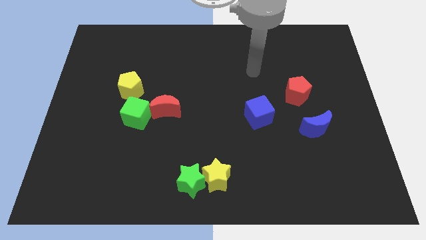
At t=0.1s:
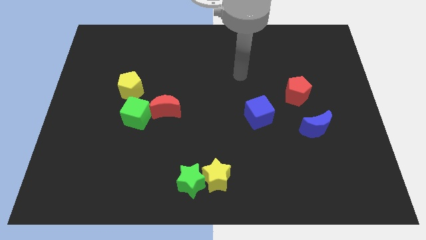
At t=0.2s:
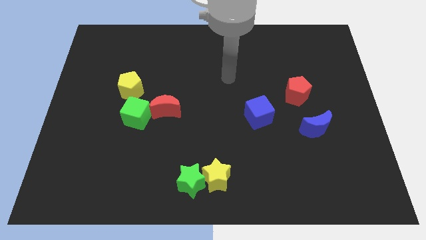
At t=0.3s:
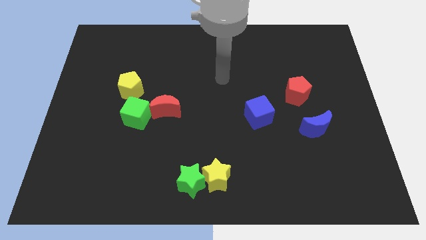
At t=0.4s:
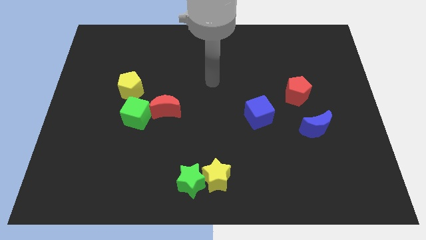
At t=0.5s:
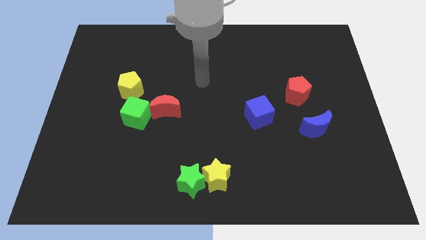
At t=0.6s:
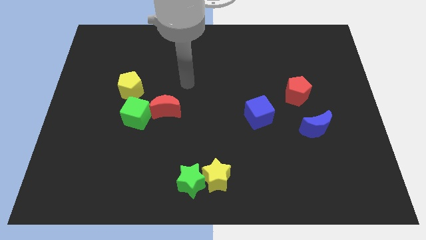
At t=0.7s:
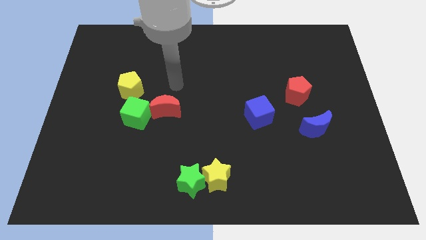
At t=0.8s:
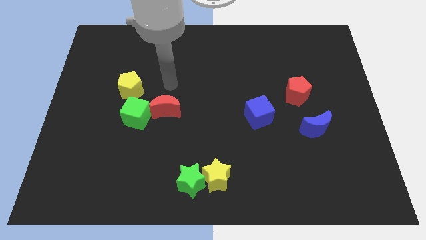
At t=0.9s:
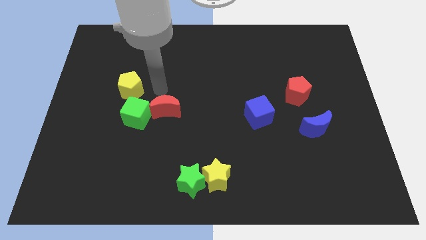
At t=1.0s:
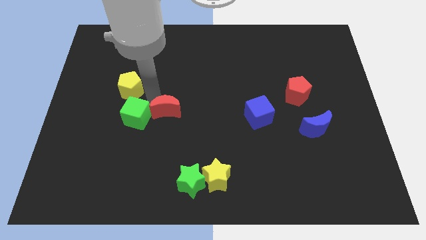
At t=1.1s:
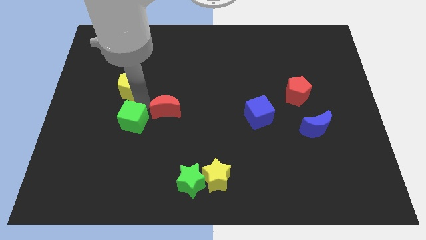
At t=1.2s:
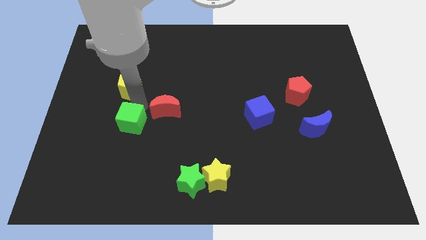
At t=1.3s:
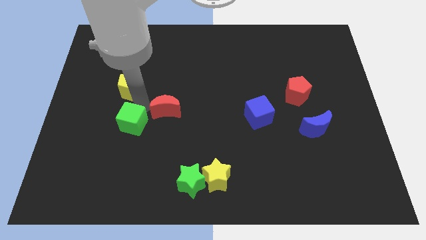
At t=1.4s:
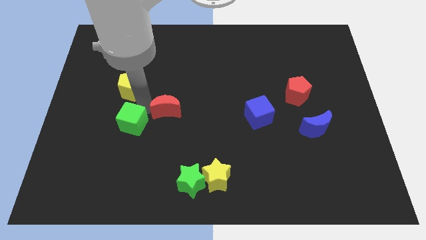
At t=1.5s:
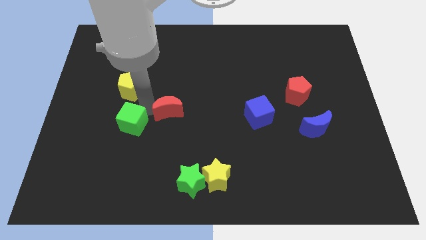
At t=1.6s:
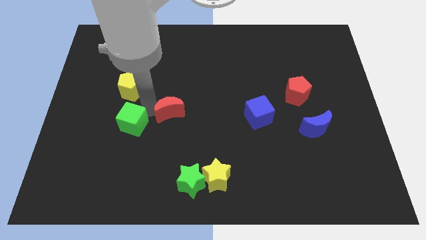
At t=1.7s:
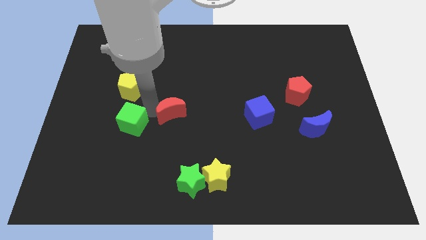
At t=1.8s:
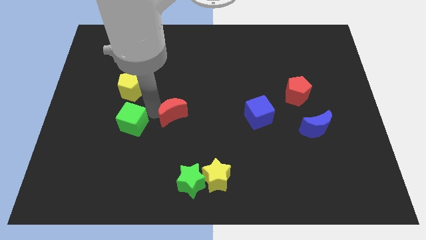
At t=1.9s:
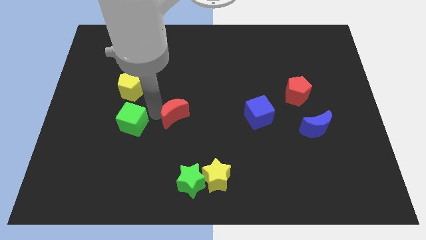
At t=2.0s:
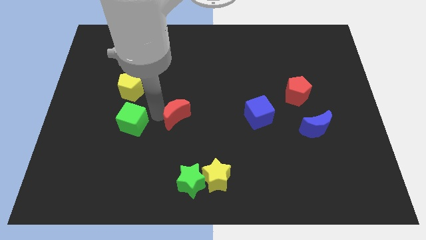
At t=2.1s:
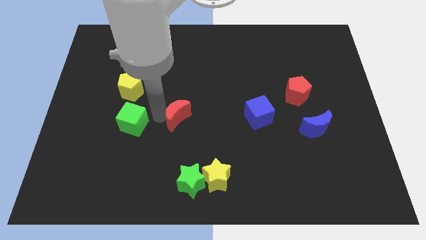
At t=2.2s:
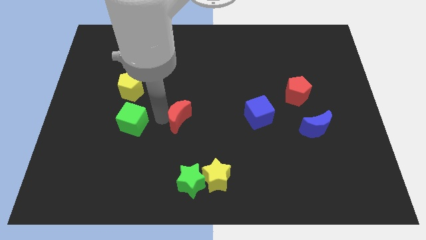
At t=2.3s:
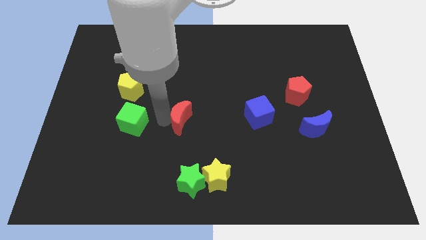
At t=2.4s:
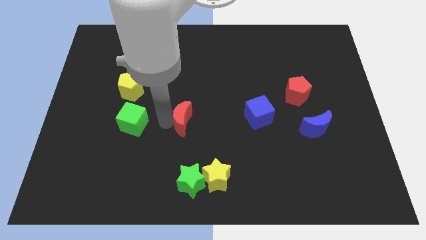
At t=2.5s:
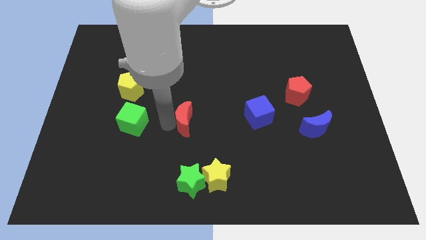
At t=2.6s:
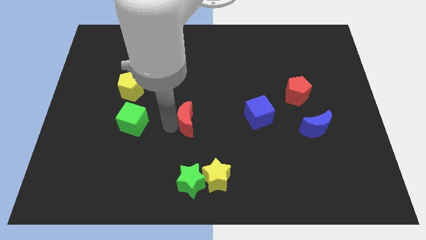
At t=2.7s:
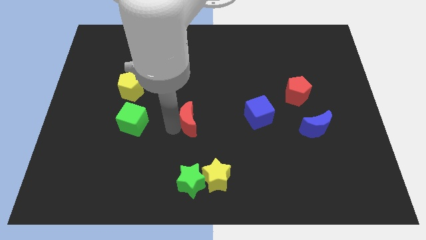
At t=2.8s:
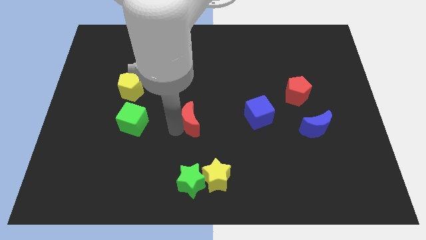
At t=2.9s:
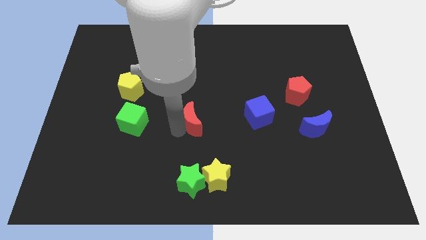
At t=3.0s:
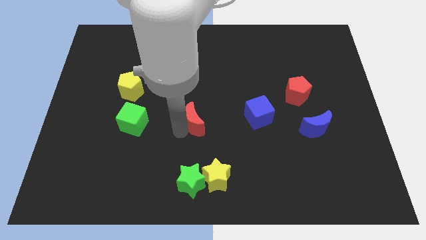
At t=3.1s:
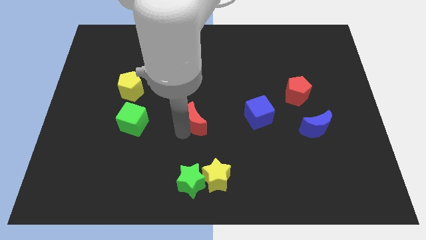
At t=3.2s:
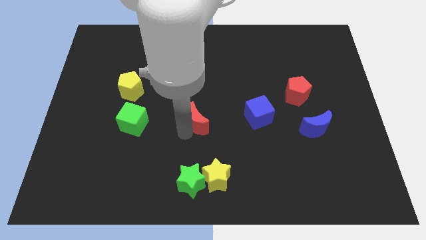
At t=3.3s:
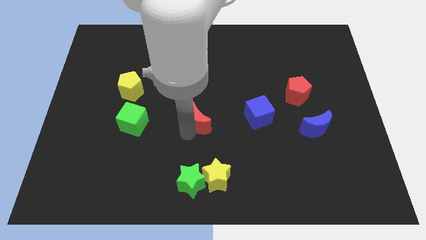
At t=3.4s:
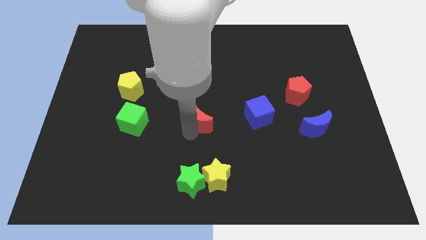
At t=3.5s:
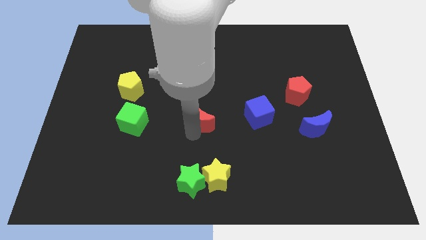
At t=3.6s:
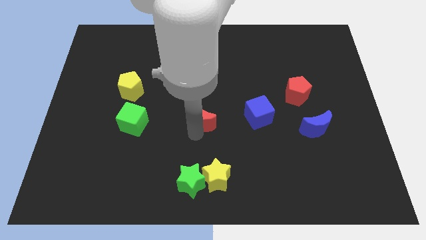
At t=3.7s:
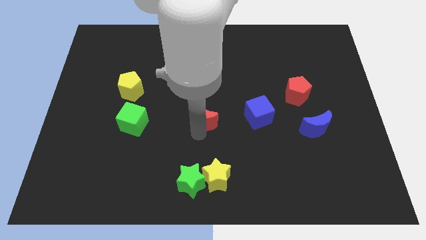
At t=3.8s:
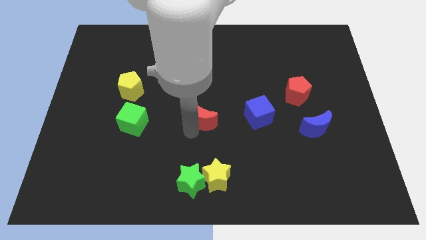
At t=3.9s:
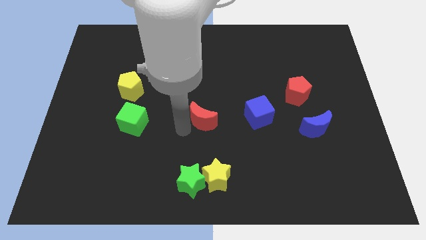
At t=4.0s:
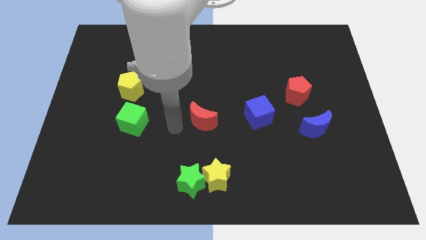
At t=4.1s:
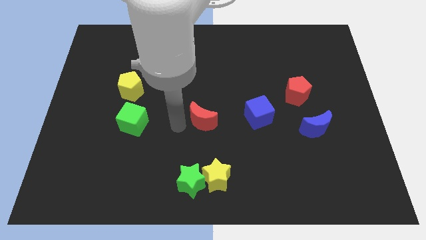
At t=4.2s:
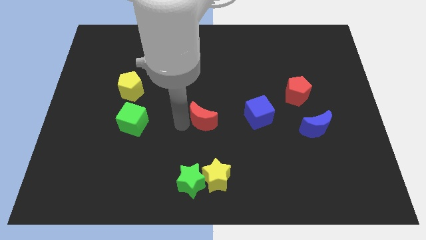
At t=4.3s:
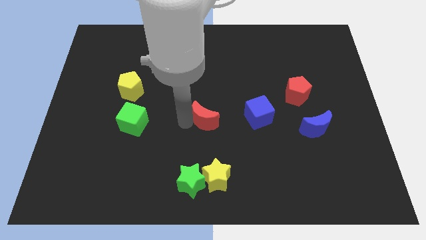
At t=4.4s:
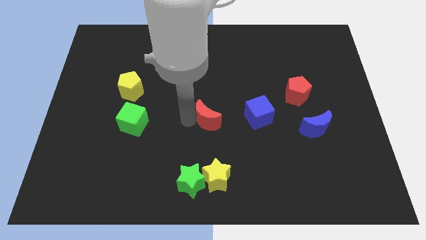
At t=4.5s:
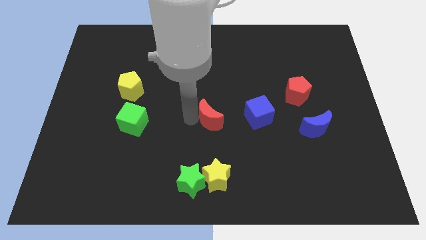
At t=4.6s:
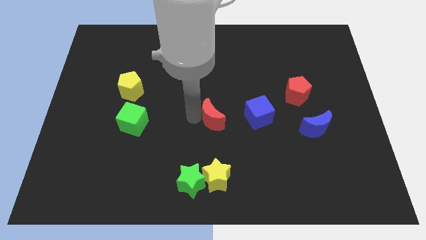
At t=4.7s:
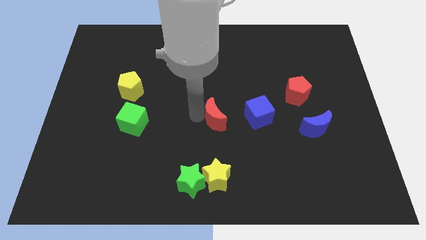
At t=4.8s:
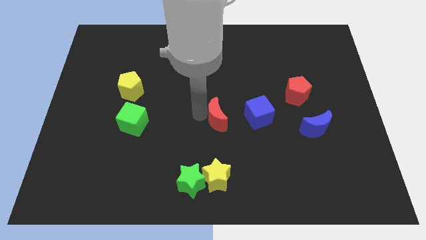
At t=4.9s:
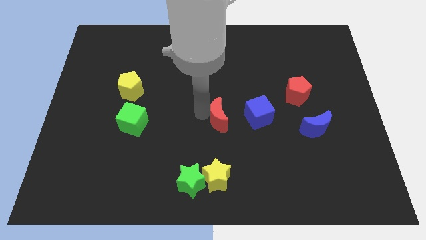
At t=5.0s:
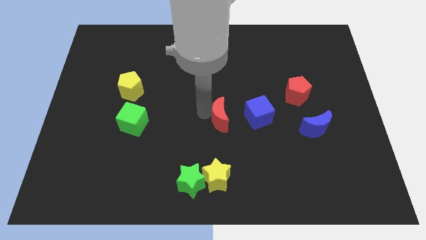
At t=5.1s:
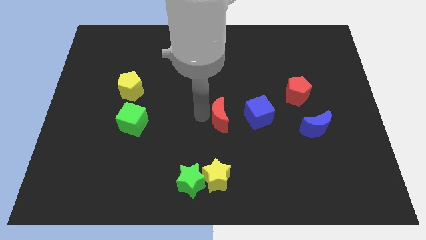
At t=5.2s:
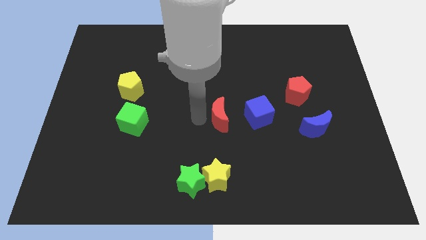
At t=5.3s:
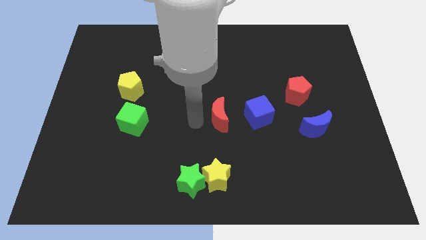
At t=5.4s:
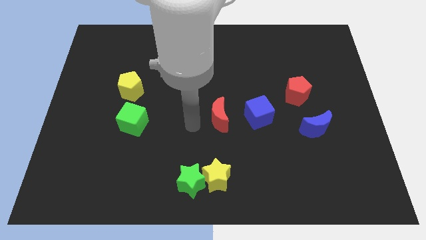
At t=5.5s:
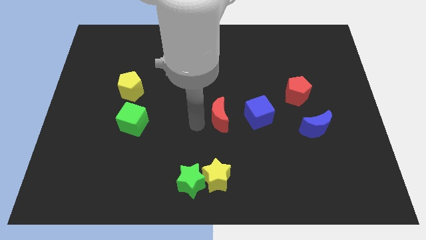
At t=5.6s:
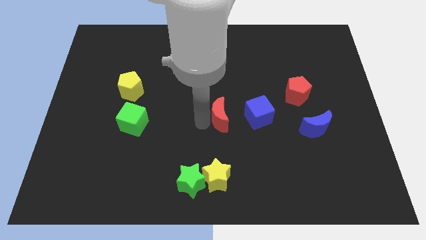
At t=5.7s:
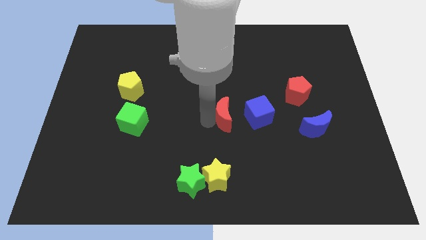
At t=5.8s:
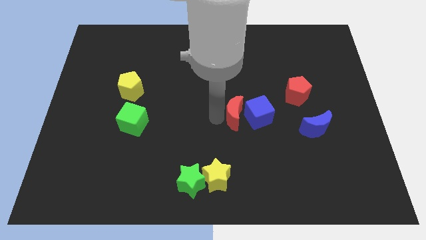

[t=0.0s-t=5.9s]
slide the red moon towards the blue cube

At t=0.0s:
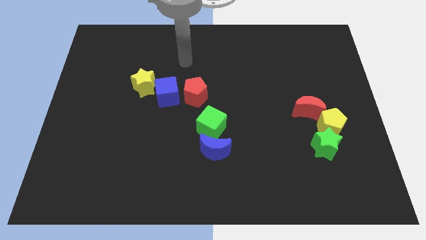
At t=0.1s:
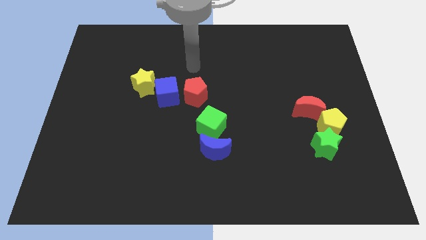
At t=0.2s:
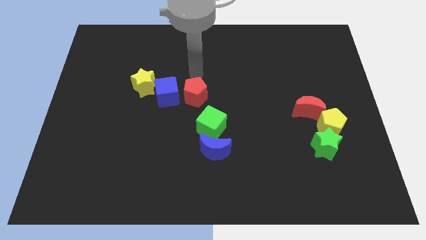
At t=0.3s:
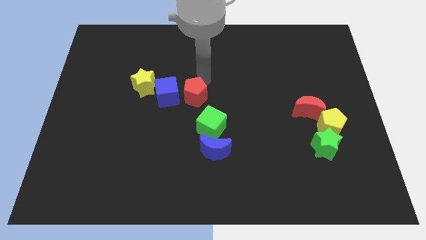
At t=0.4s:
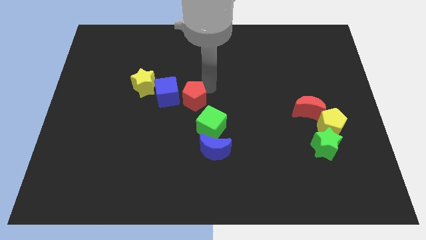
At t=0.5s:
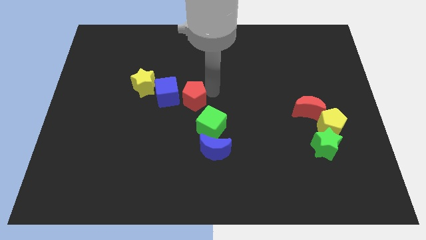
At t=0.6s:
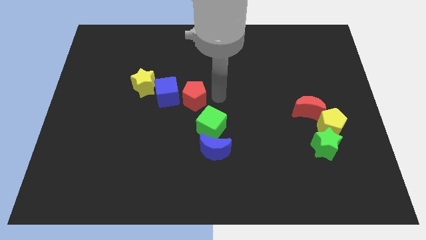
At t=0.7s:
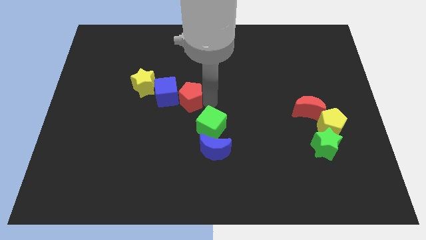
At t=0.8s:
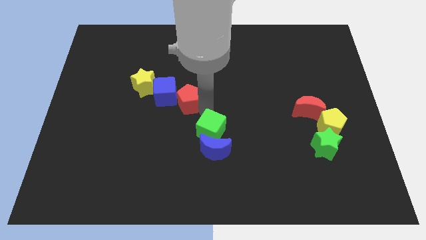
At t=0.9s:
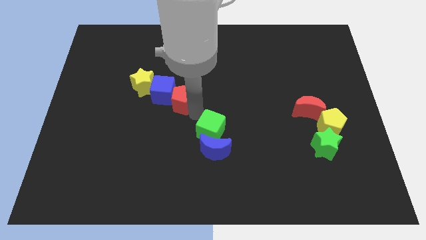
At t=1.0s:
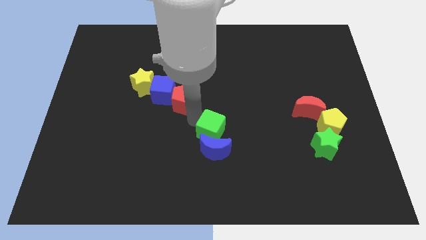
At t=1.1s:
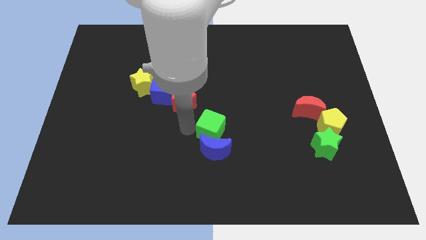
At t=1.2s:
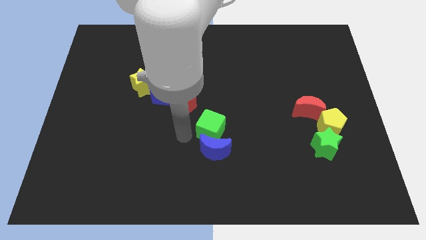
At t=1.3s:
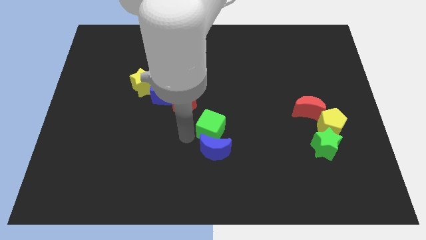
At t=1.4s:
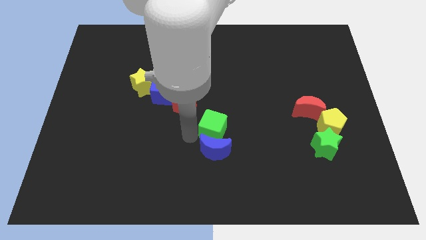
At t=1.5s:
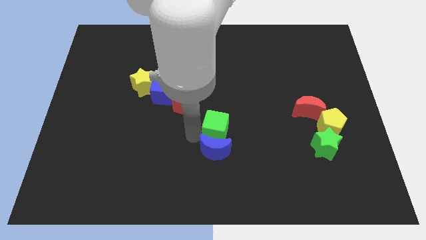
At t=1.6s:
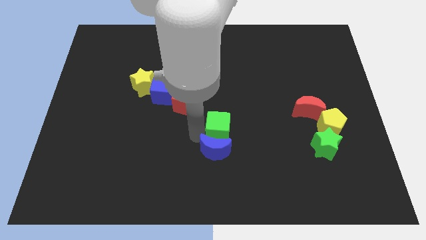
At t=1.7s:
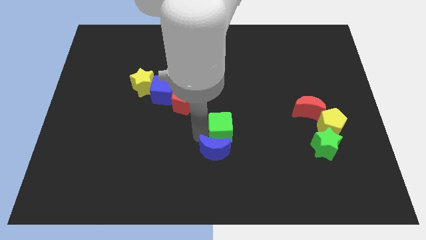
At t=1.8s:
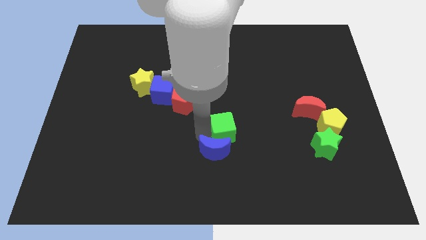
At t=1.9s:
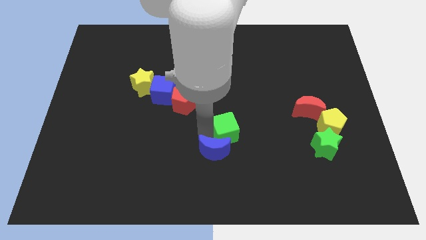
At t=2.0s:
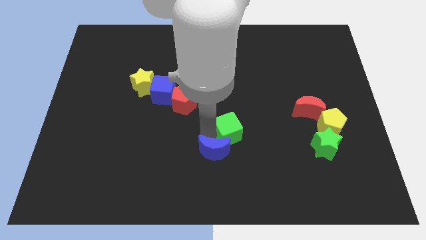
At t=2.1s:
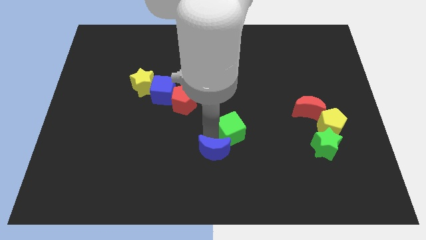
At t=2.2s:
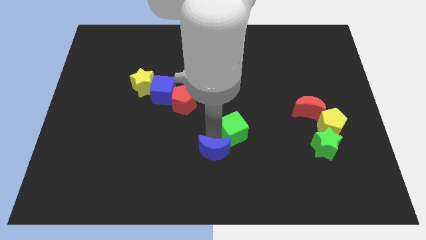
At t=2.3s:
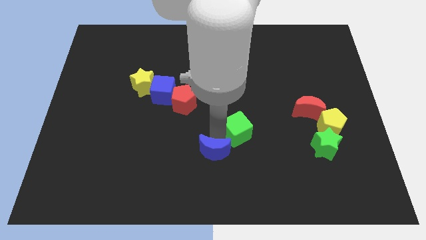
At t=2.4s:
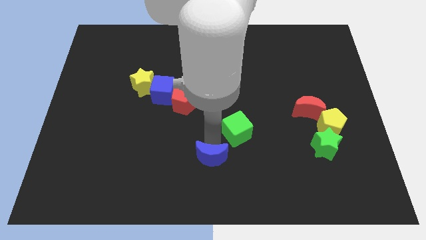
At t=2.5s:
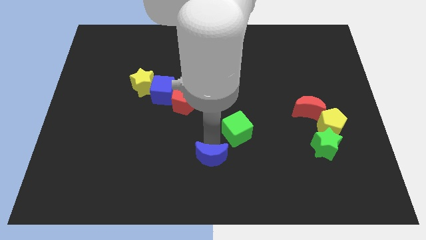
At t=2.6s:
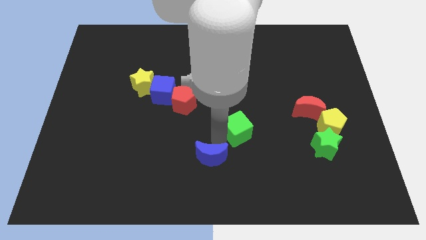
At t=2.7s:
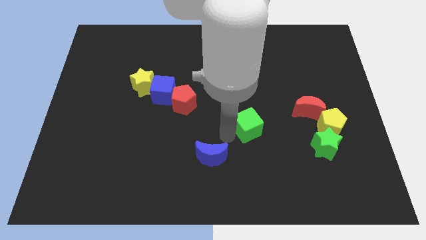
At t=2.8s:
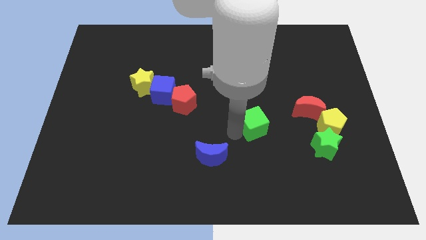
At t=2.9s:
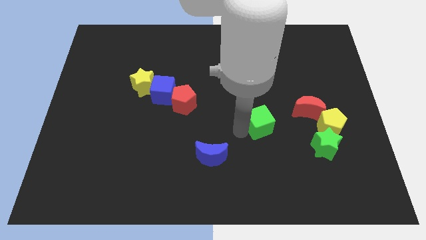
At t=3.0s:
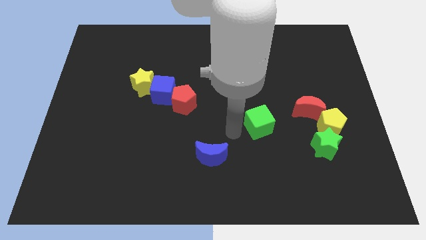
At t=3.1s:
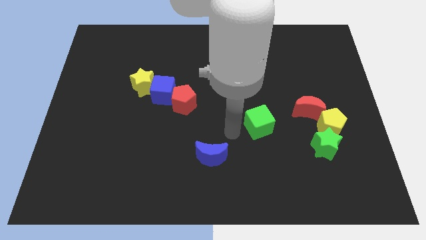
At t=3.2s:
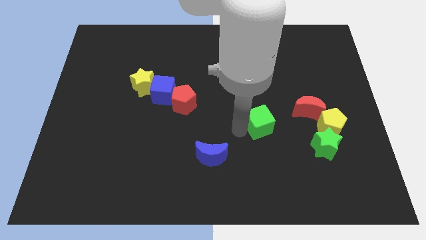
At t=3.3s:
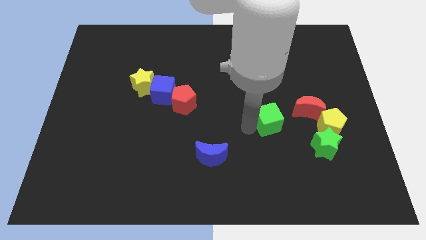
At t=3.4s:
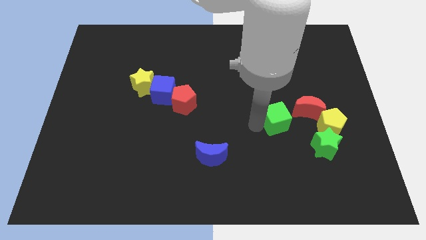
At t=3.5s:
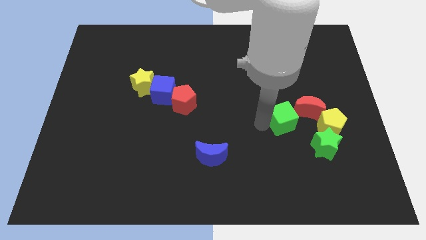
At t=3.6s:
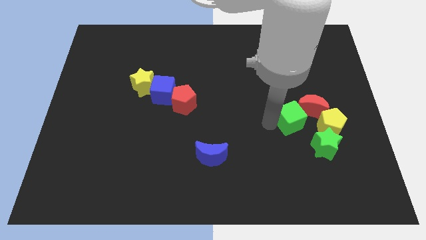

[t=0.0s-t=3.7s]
slide the green cube close to the red moon
